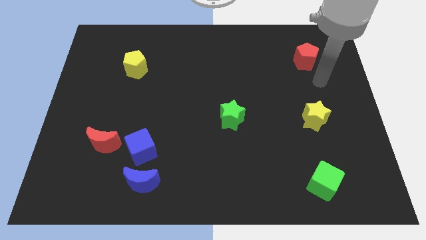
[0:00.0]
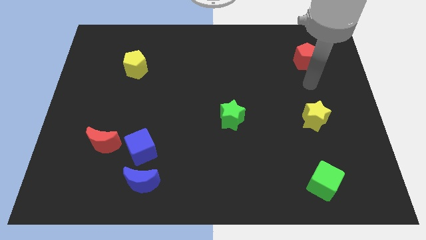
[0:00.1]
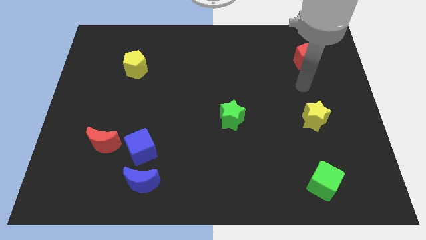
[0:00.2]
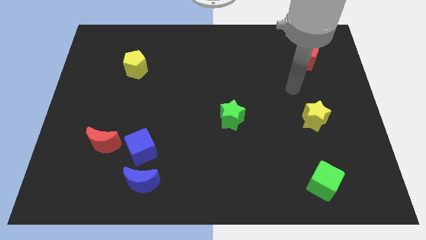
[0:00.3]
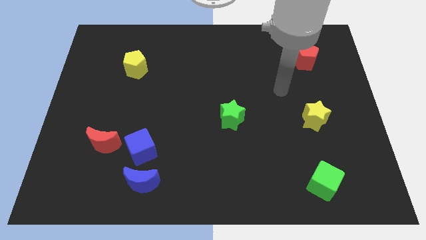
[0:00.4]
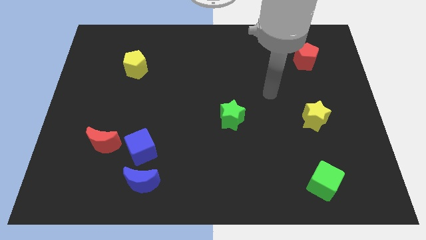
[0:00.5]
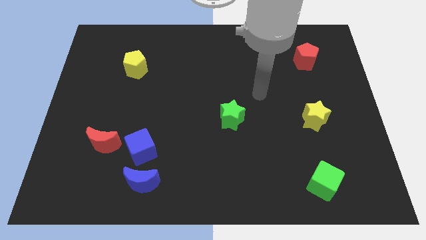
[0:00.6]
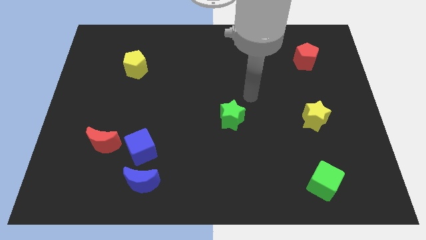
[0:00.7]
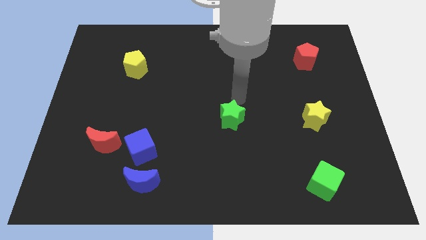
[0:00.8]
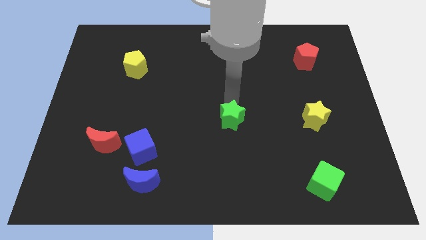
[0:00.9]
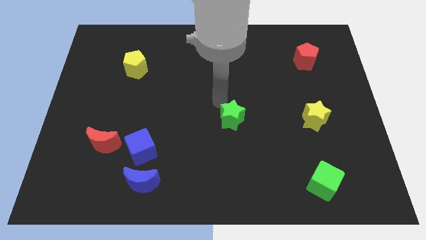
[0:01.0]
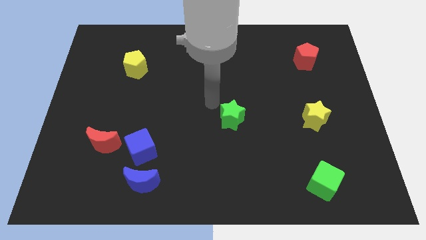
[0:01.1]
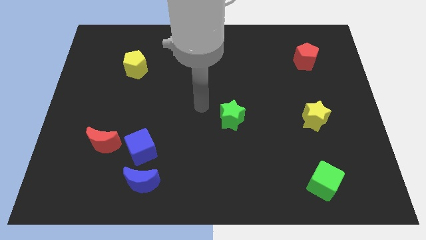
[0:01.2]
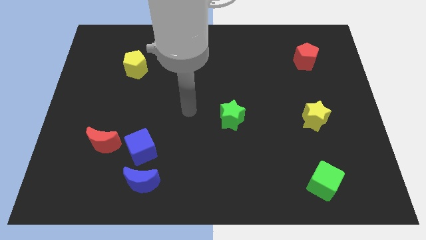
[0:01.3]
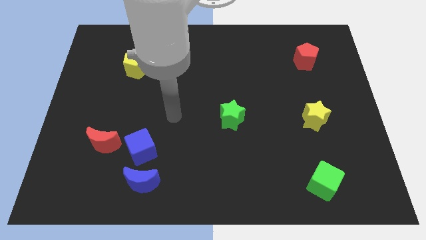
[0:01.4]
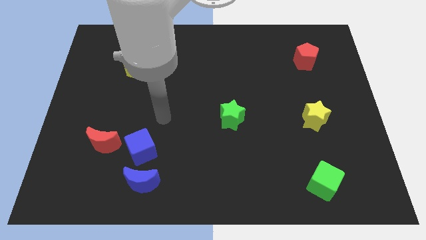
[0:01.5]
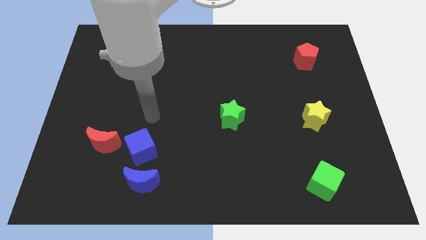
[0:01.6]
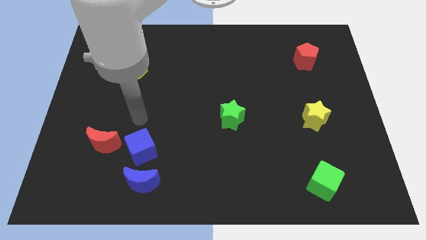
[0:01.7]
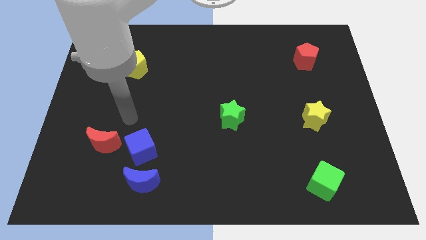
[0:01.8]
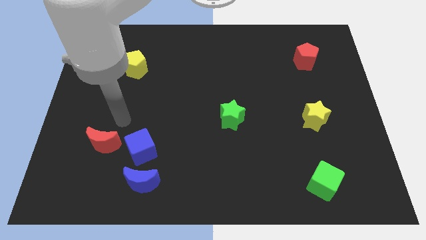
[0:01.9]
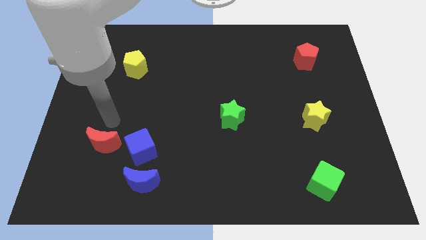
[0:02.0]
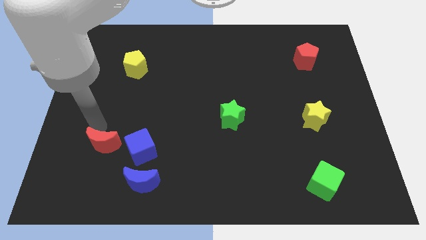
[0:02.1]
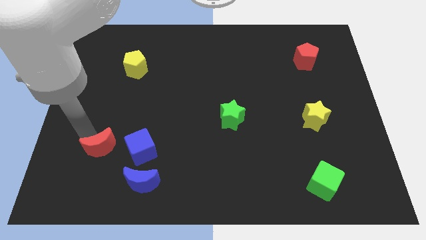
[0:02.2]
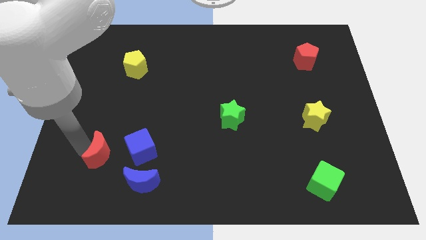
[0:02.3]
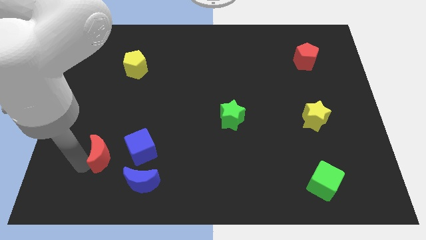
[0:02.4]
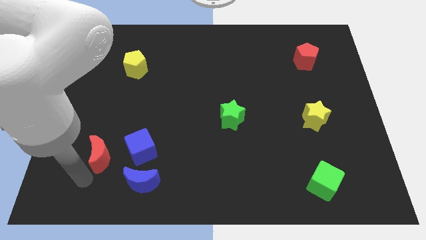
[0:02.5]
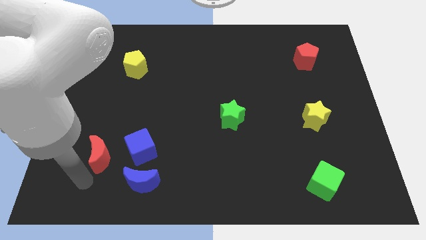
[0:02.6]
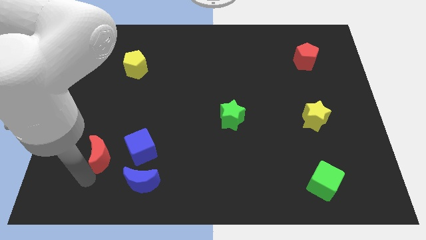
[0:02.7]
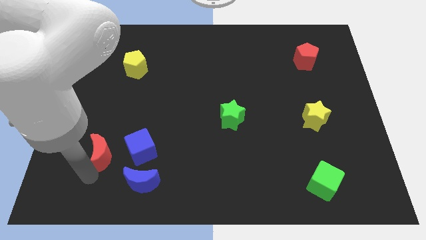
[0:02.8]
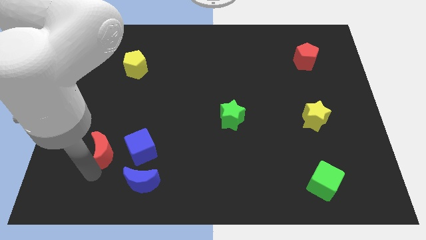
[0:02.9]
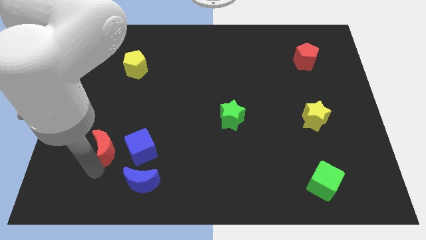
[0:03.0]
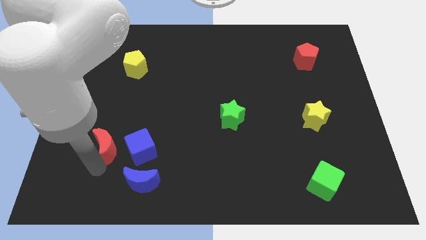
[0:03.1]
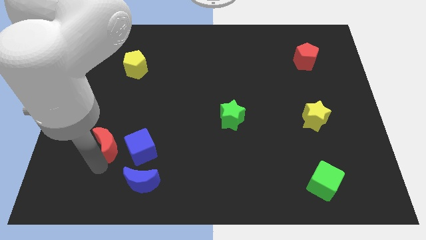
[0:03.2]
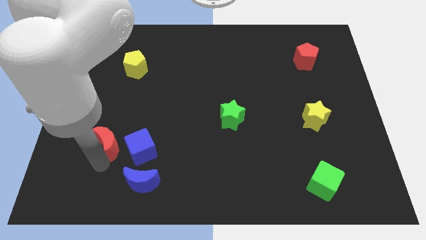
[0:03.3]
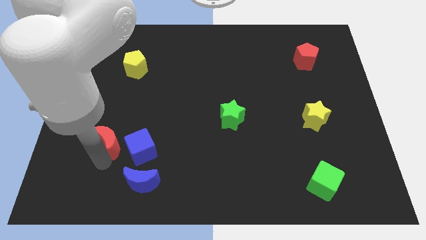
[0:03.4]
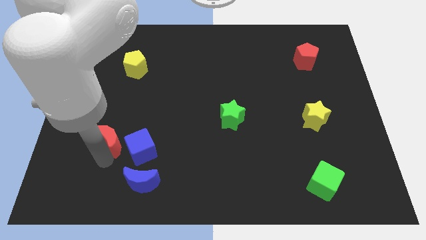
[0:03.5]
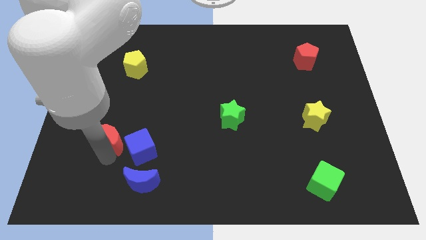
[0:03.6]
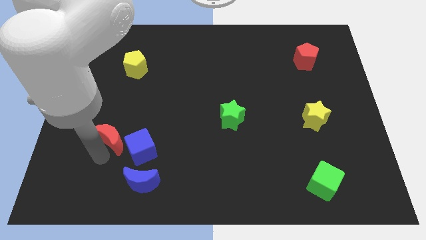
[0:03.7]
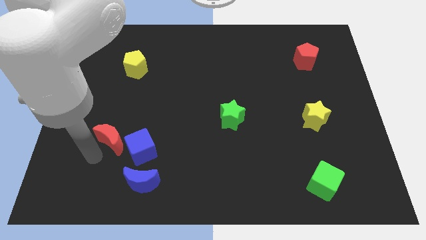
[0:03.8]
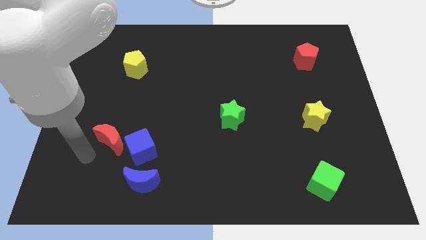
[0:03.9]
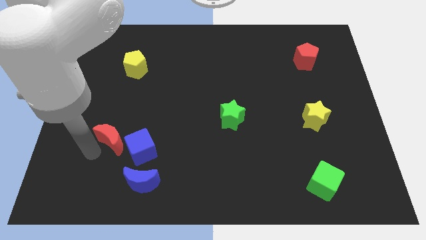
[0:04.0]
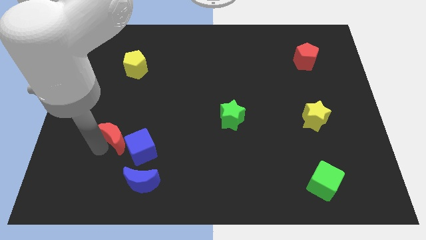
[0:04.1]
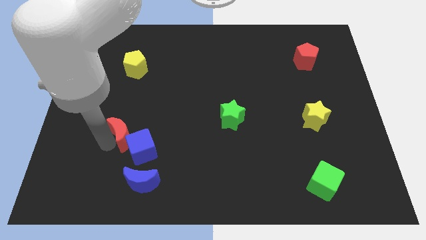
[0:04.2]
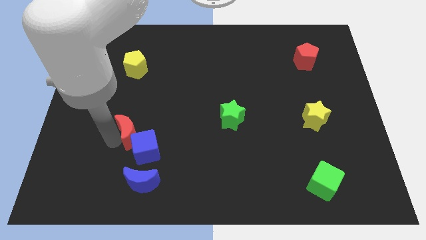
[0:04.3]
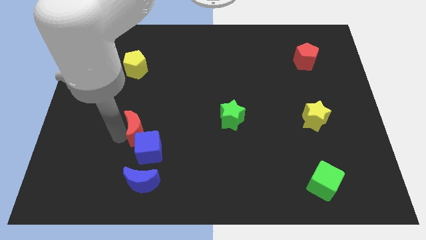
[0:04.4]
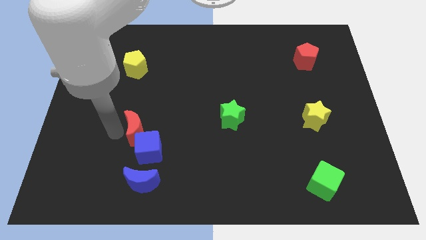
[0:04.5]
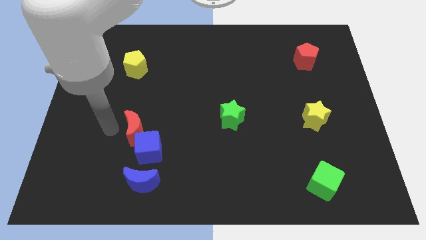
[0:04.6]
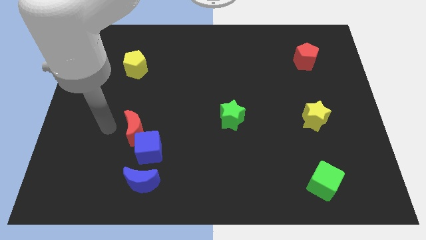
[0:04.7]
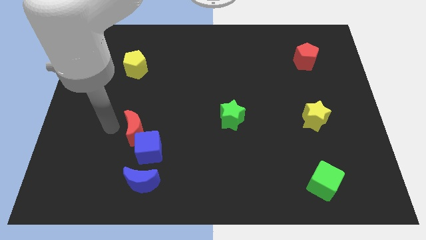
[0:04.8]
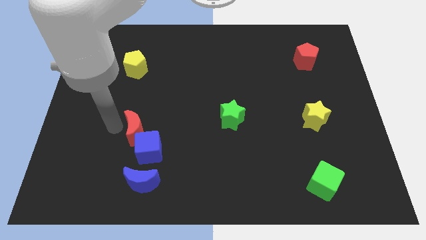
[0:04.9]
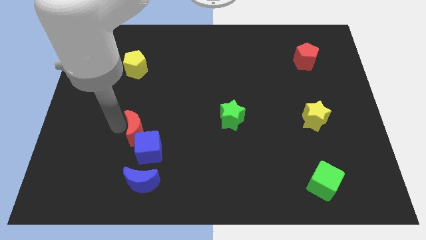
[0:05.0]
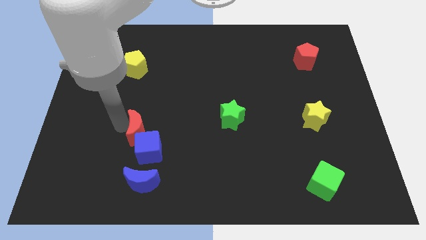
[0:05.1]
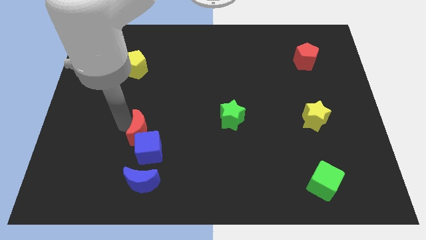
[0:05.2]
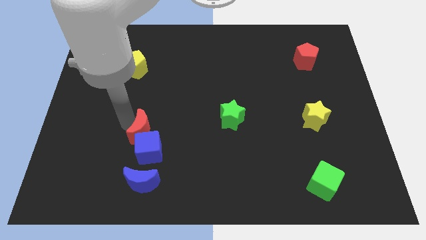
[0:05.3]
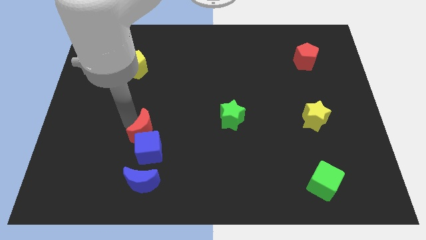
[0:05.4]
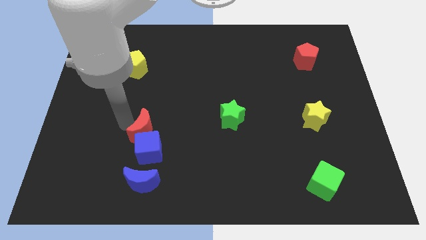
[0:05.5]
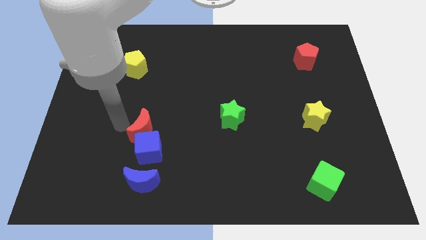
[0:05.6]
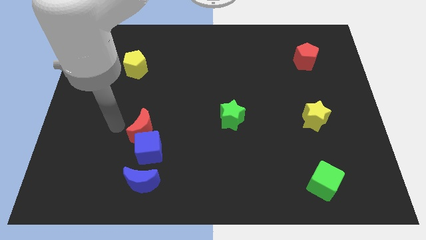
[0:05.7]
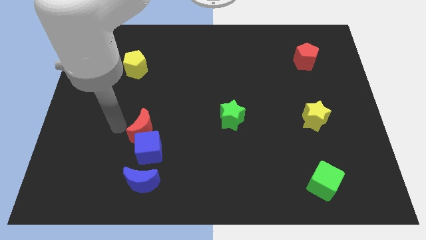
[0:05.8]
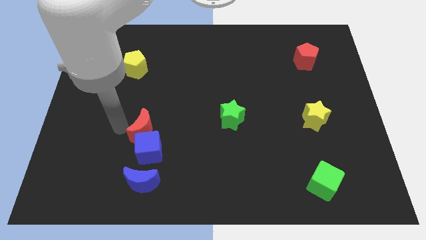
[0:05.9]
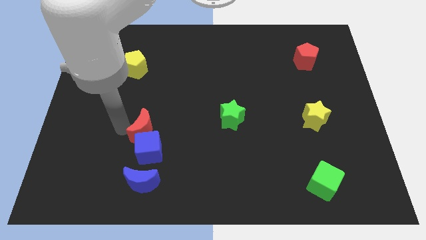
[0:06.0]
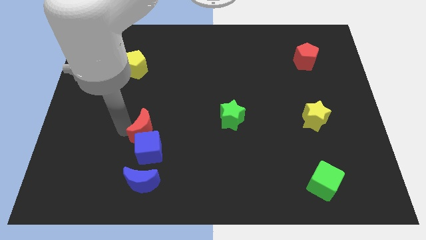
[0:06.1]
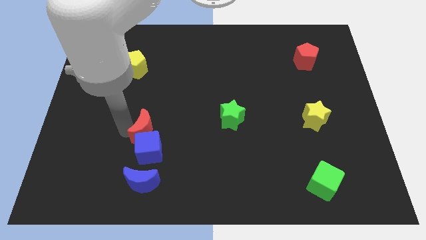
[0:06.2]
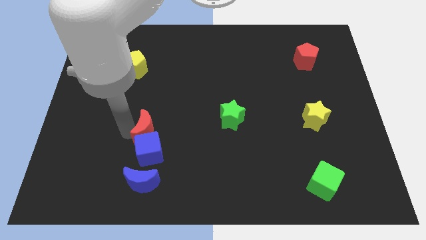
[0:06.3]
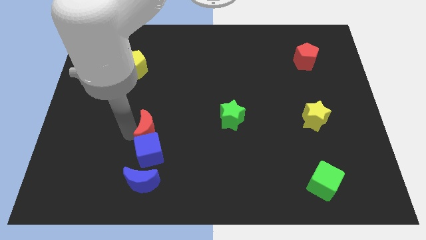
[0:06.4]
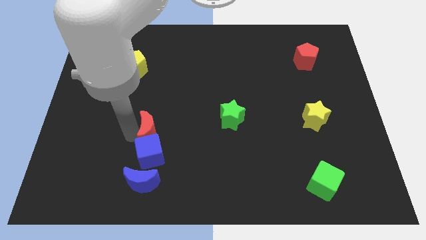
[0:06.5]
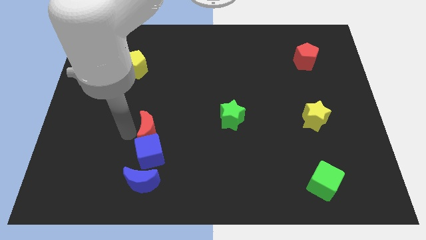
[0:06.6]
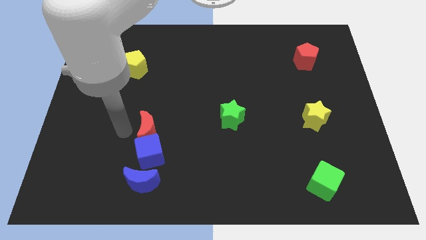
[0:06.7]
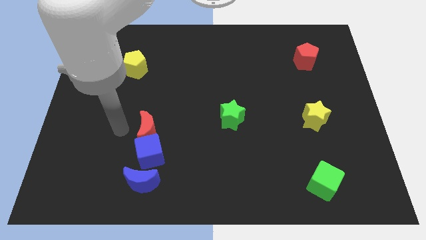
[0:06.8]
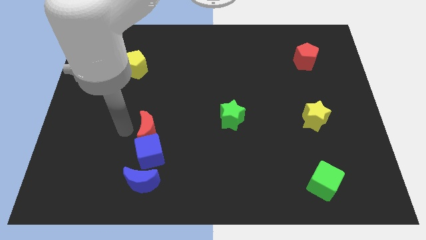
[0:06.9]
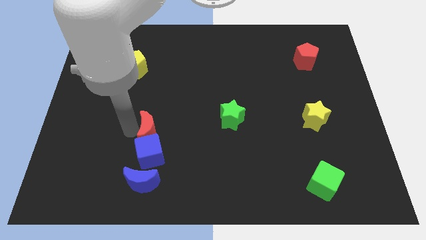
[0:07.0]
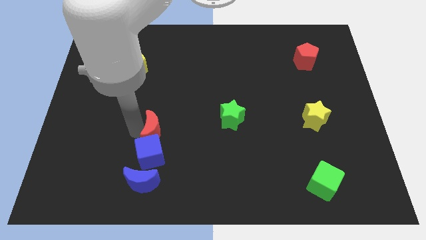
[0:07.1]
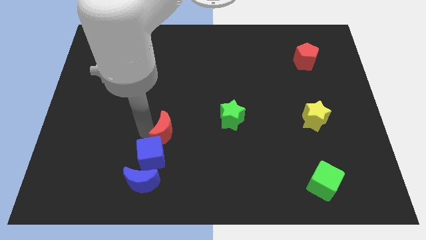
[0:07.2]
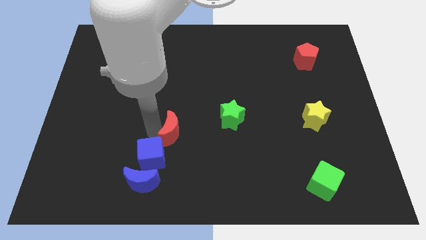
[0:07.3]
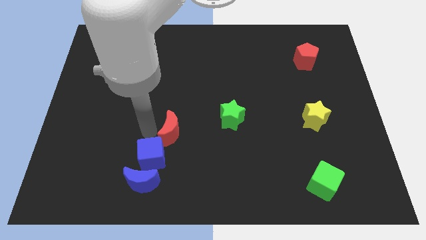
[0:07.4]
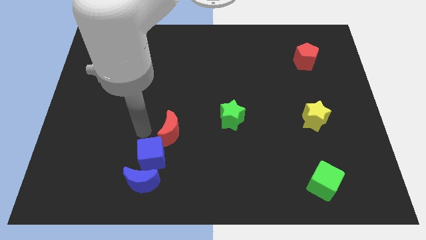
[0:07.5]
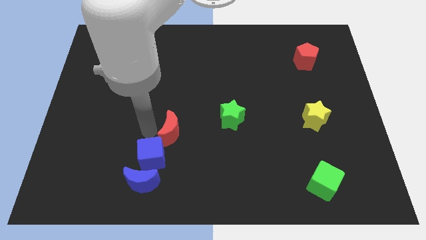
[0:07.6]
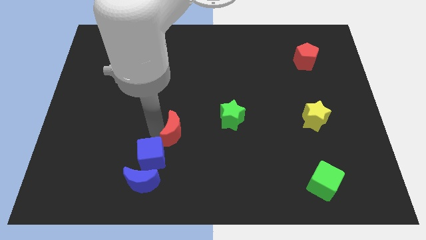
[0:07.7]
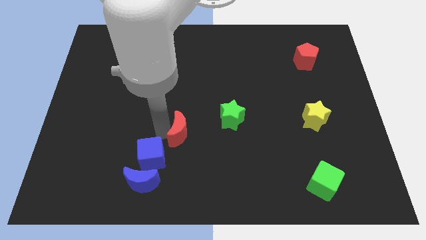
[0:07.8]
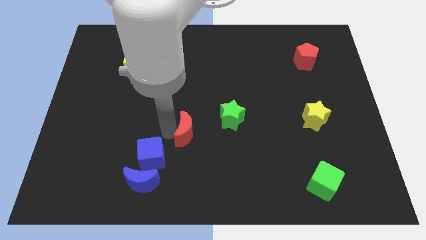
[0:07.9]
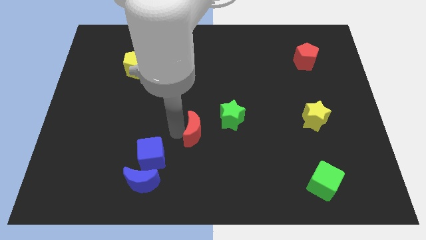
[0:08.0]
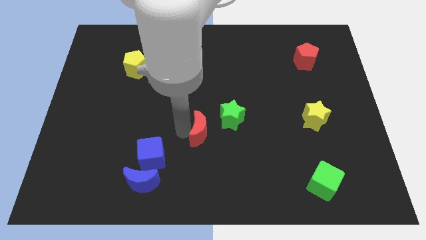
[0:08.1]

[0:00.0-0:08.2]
push the red moon to the right
